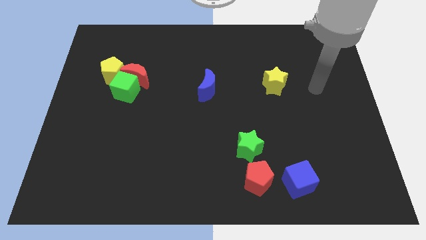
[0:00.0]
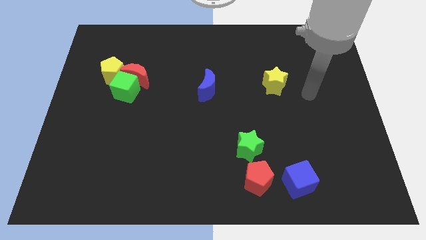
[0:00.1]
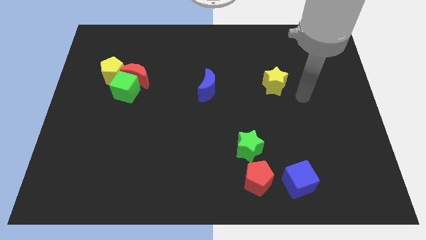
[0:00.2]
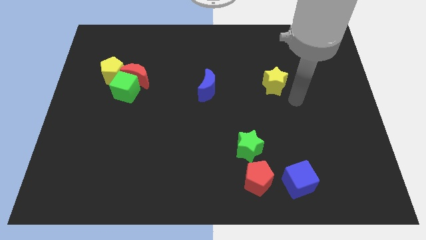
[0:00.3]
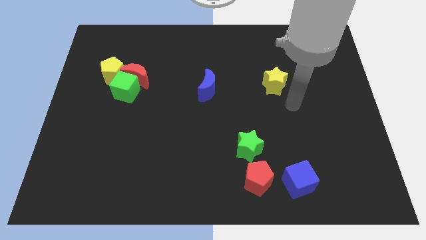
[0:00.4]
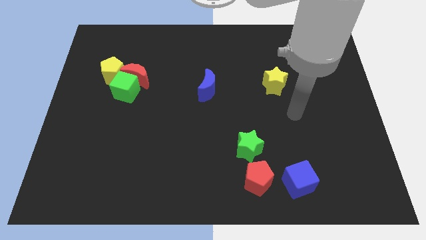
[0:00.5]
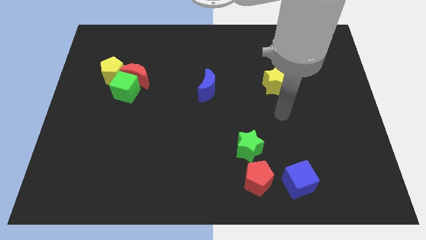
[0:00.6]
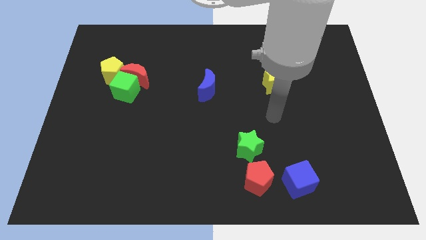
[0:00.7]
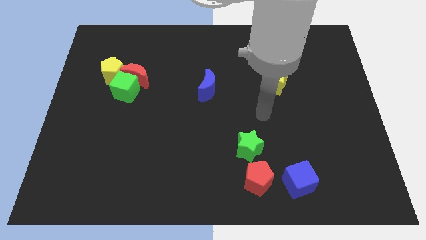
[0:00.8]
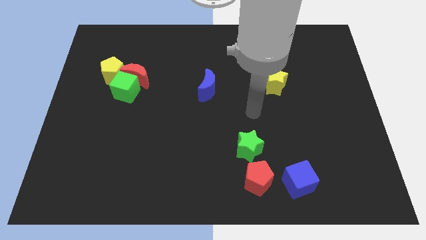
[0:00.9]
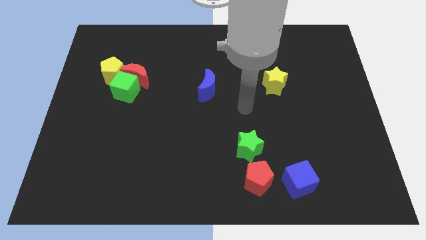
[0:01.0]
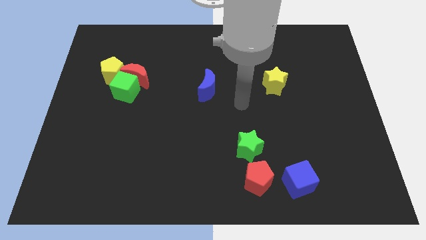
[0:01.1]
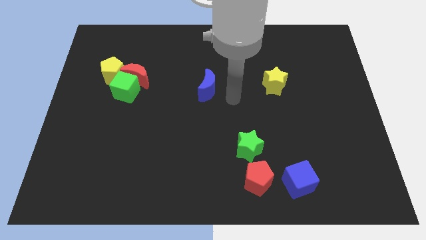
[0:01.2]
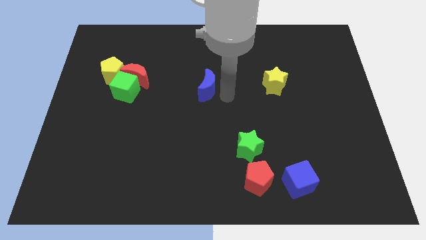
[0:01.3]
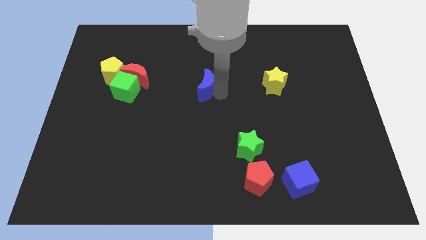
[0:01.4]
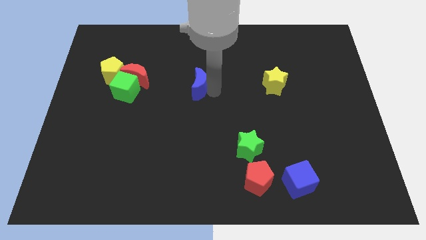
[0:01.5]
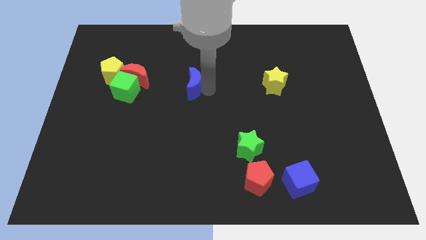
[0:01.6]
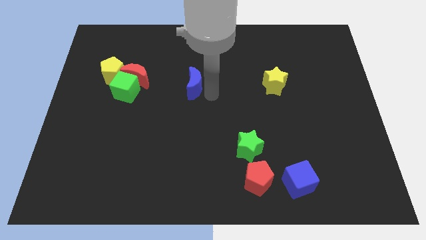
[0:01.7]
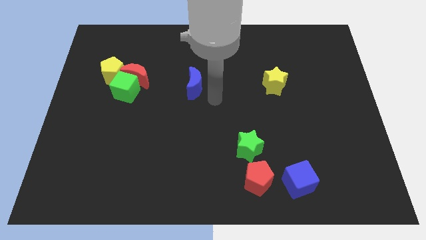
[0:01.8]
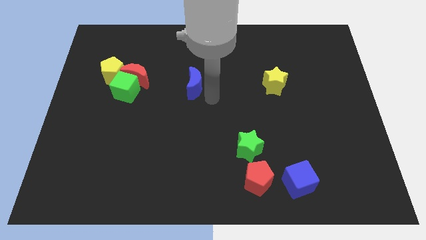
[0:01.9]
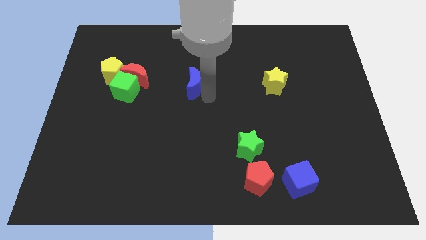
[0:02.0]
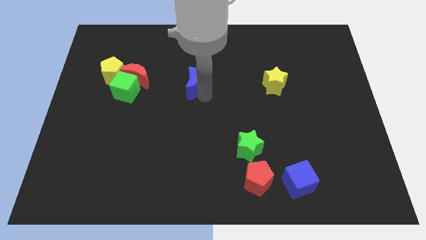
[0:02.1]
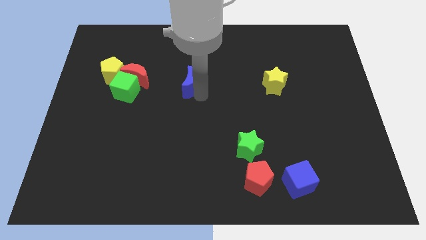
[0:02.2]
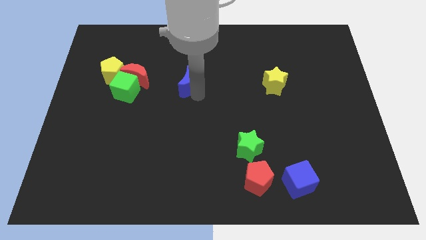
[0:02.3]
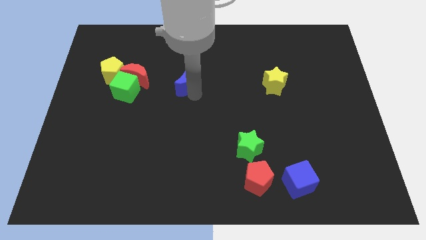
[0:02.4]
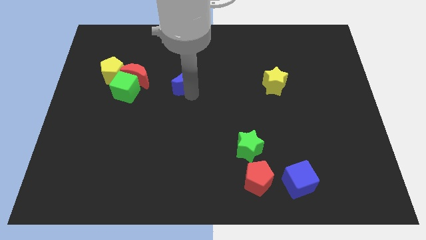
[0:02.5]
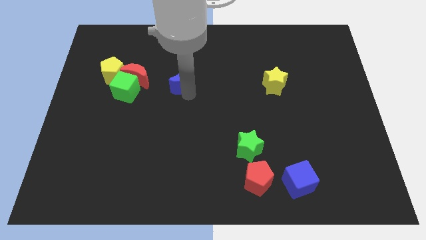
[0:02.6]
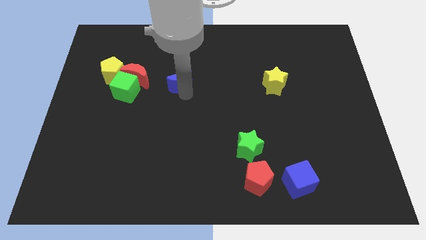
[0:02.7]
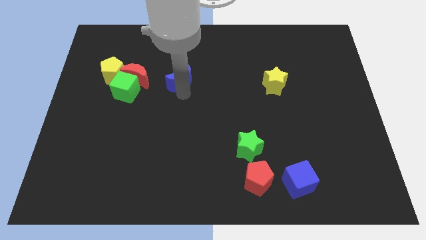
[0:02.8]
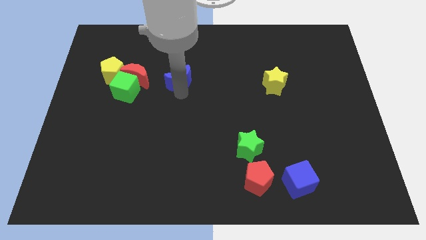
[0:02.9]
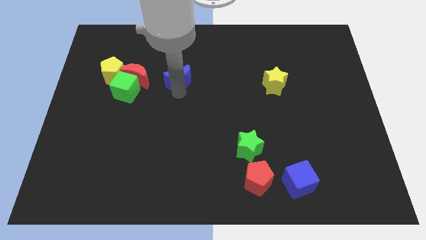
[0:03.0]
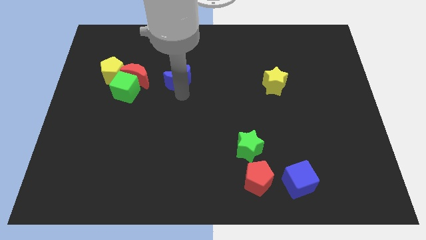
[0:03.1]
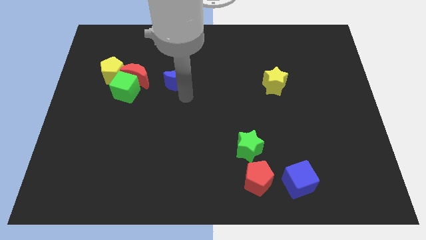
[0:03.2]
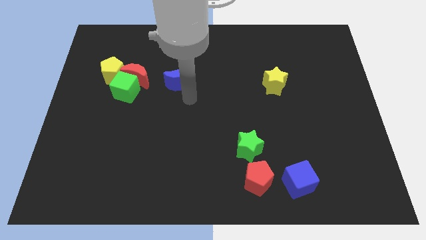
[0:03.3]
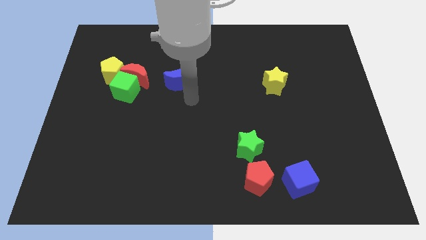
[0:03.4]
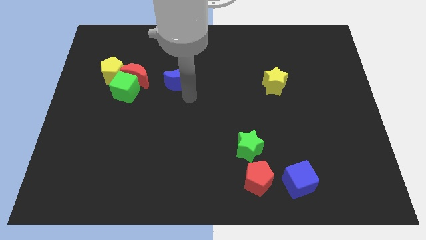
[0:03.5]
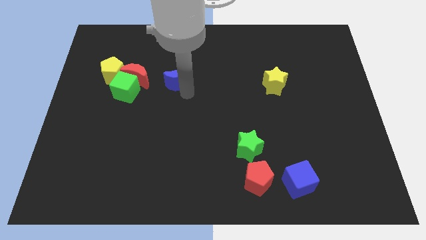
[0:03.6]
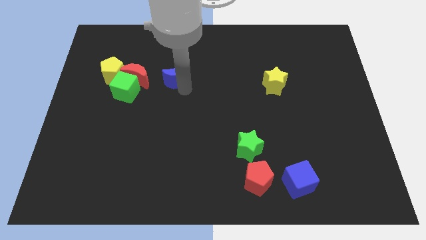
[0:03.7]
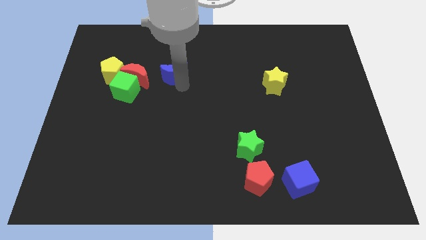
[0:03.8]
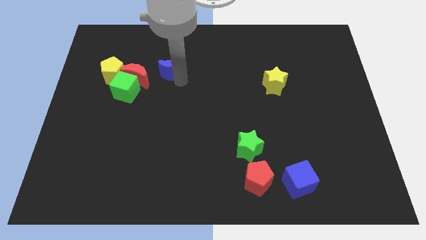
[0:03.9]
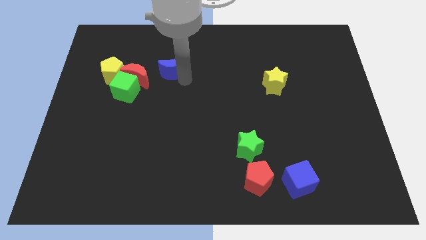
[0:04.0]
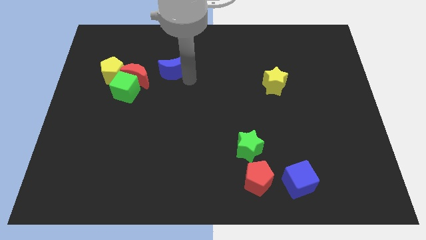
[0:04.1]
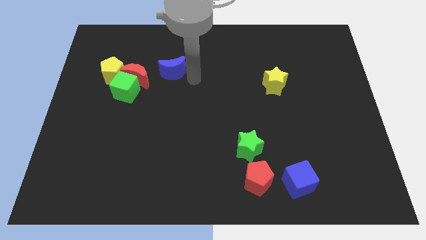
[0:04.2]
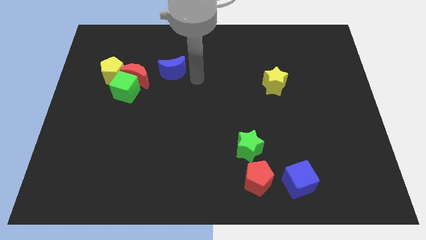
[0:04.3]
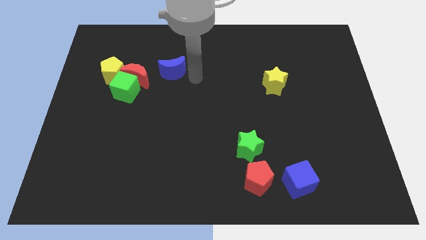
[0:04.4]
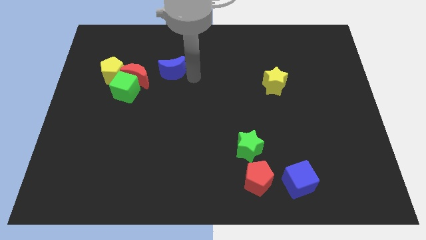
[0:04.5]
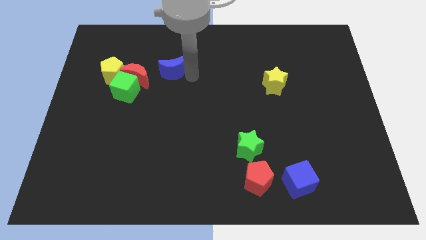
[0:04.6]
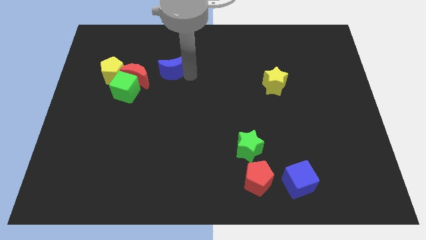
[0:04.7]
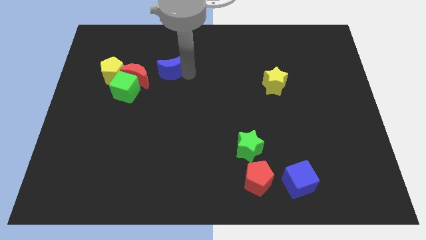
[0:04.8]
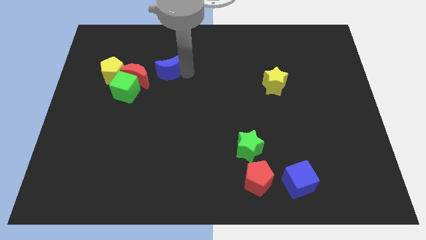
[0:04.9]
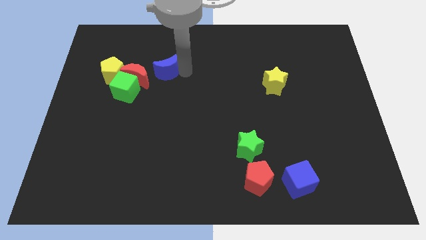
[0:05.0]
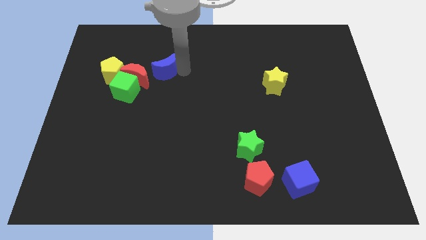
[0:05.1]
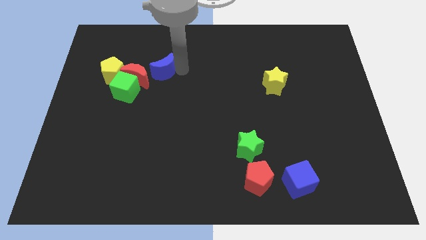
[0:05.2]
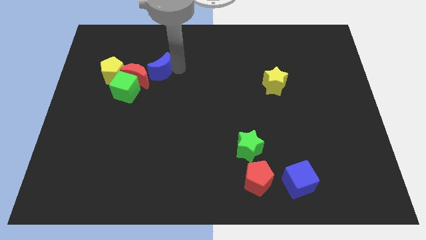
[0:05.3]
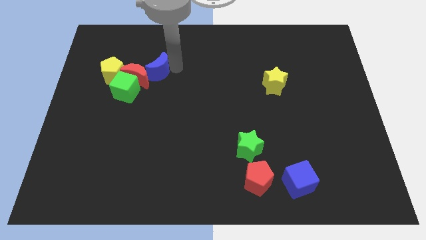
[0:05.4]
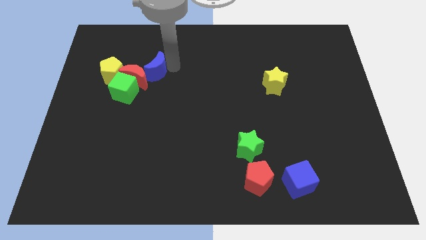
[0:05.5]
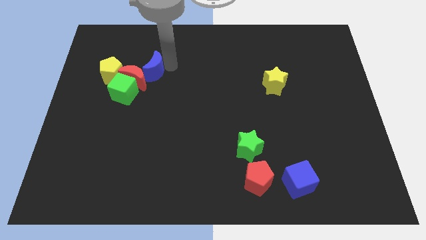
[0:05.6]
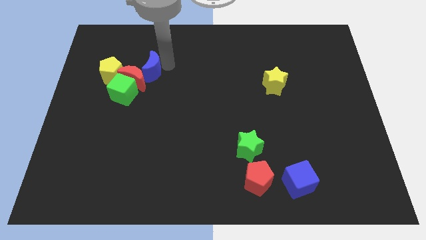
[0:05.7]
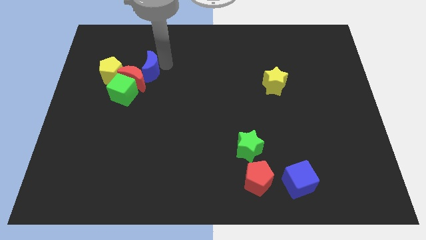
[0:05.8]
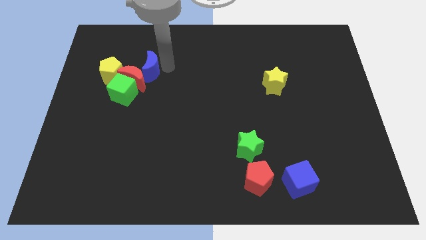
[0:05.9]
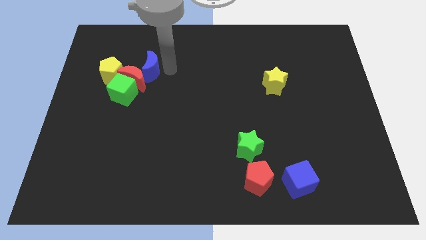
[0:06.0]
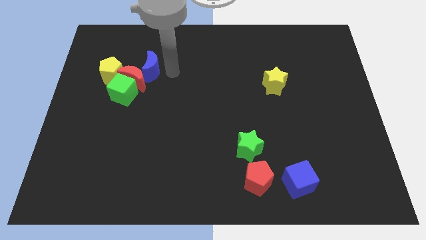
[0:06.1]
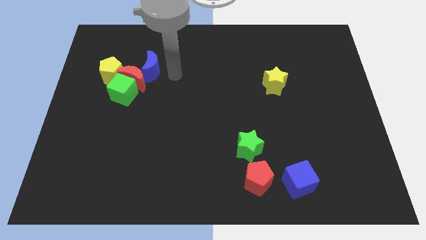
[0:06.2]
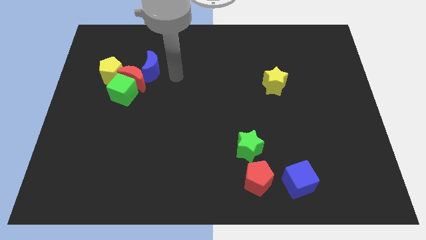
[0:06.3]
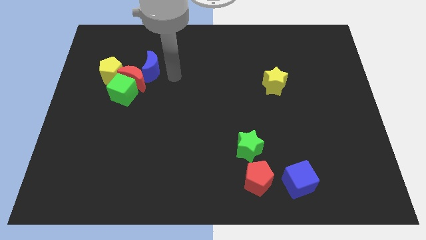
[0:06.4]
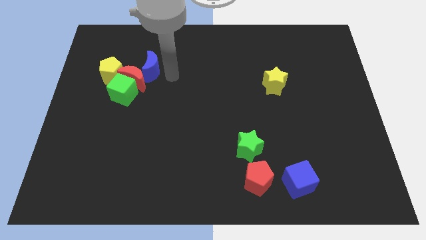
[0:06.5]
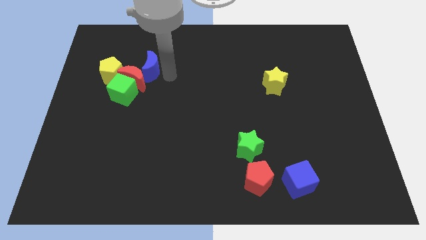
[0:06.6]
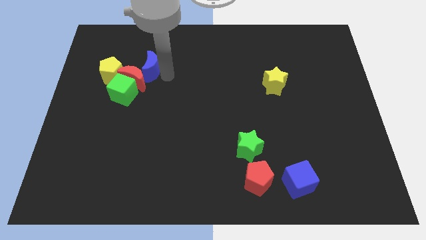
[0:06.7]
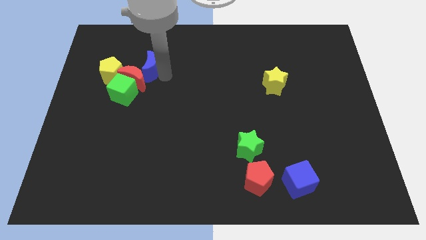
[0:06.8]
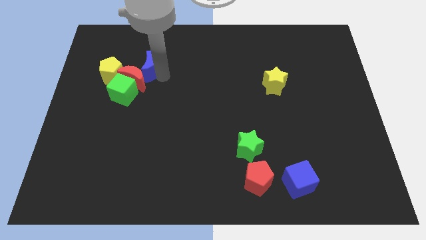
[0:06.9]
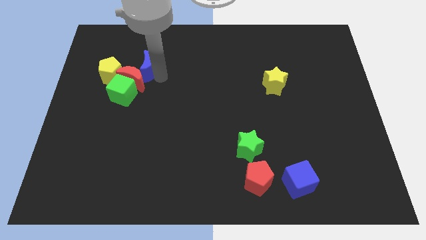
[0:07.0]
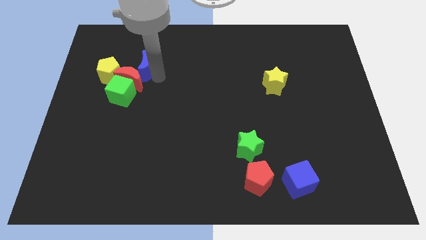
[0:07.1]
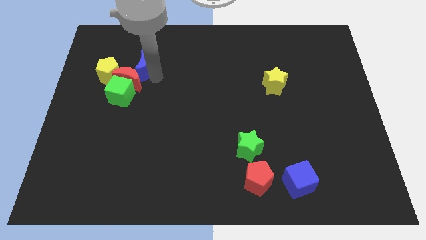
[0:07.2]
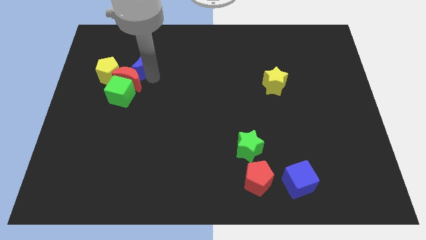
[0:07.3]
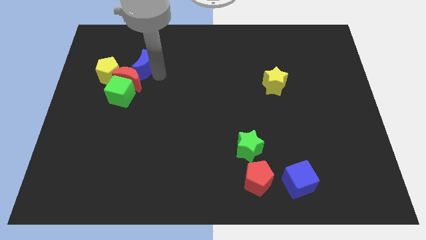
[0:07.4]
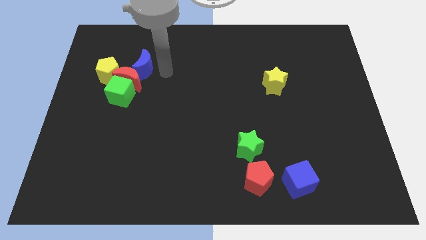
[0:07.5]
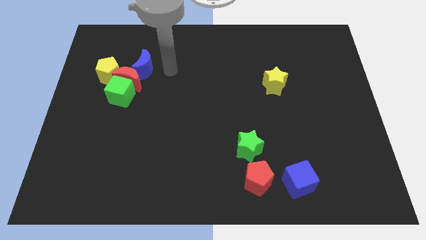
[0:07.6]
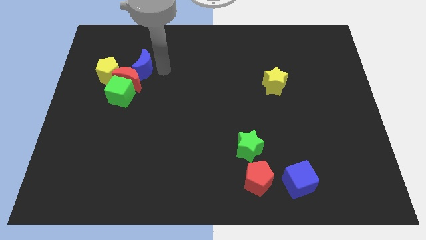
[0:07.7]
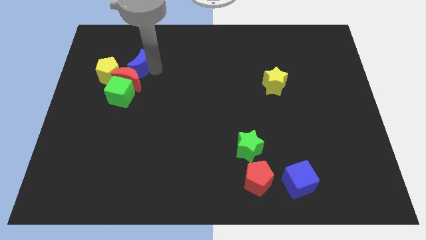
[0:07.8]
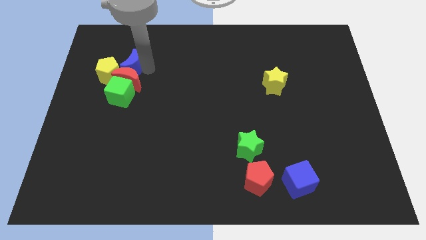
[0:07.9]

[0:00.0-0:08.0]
slide the blue moon to the top left of the red moon

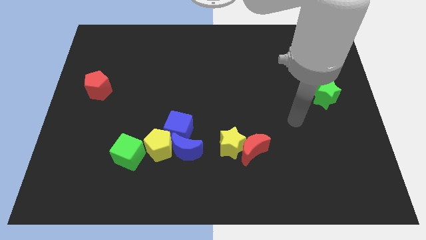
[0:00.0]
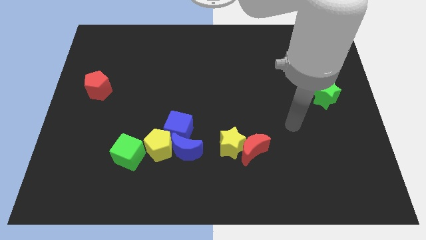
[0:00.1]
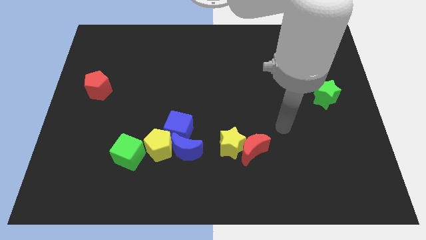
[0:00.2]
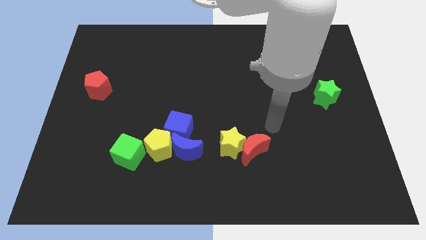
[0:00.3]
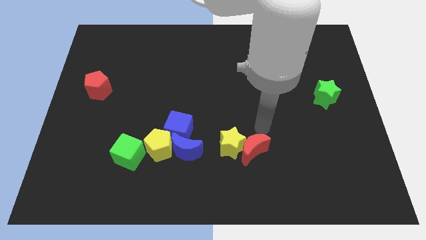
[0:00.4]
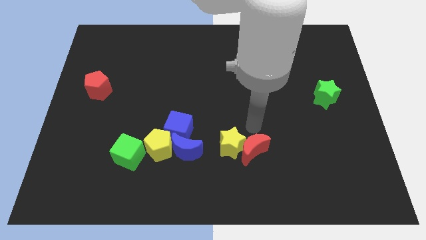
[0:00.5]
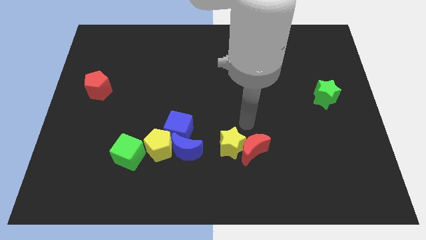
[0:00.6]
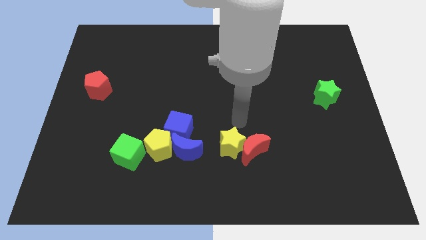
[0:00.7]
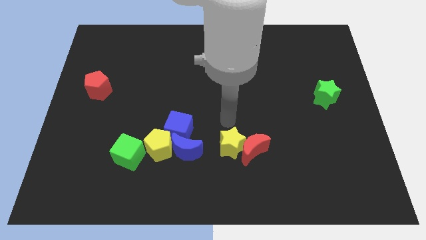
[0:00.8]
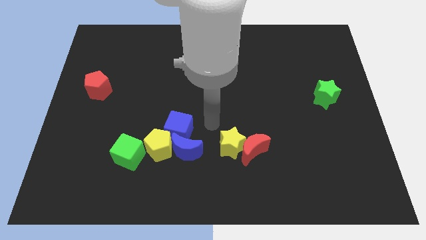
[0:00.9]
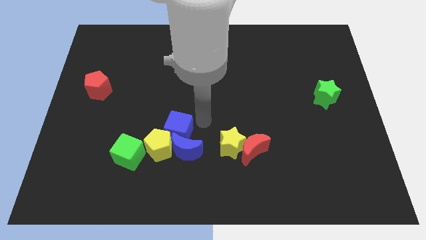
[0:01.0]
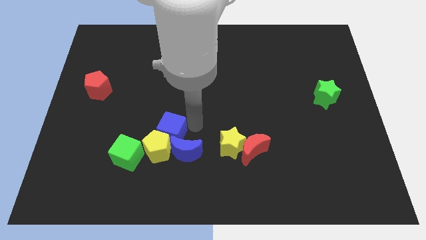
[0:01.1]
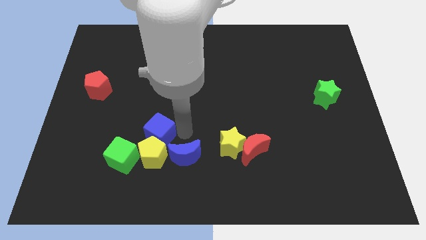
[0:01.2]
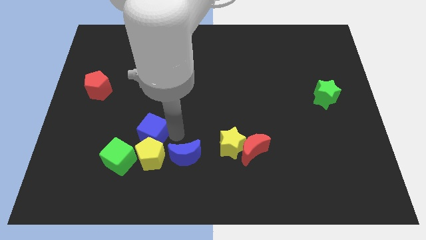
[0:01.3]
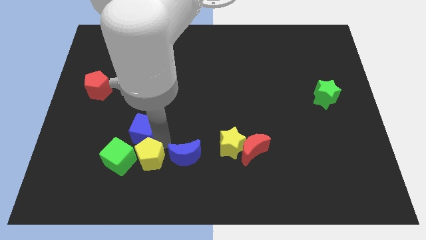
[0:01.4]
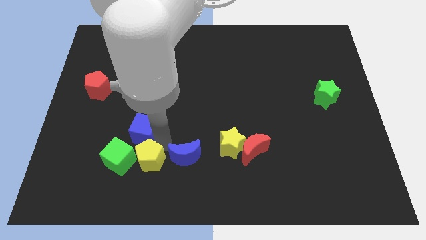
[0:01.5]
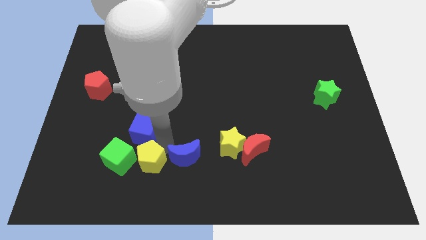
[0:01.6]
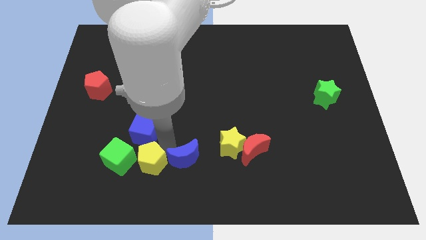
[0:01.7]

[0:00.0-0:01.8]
put the blue moon diagonally down and to the left of the yellow star
